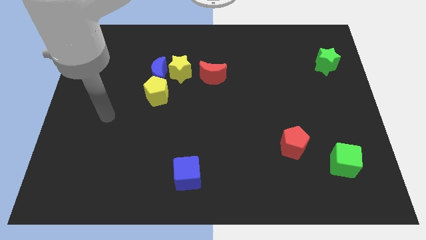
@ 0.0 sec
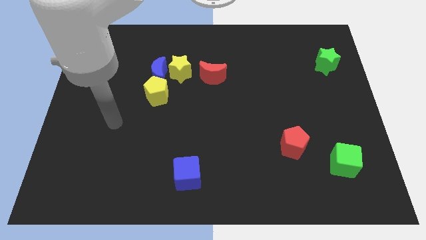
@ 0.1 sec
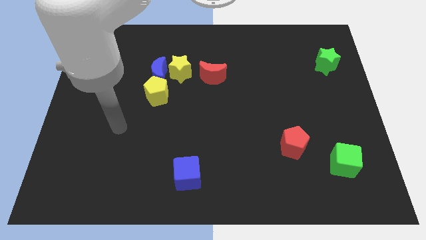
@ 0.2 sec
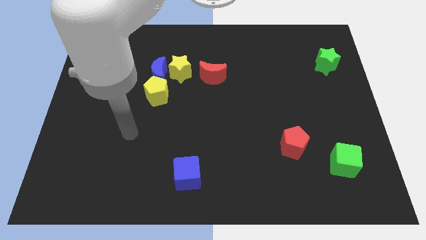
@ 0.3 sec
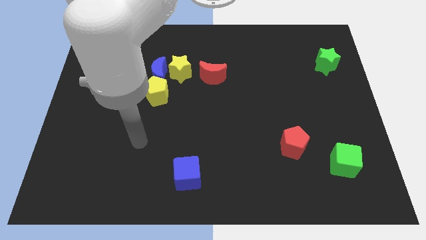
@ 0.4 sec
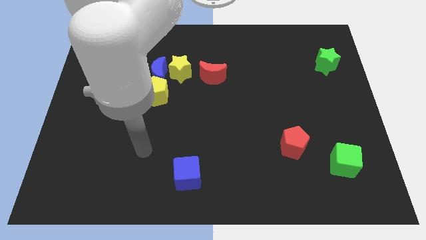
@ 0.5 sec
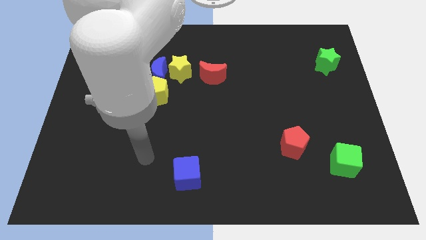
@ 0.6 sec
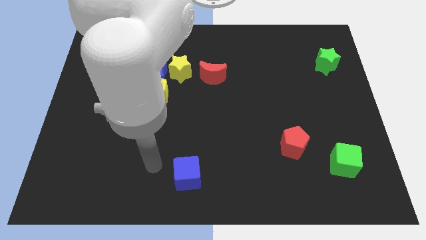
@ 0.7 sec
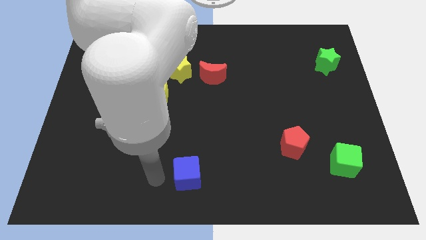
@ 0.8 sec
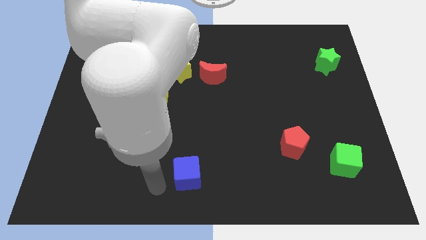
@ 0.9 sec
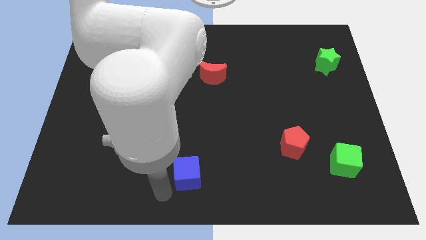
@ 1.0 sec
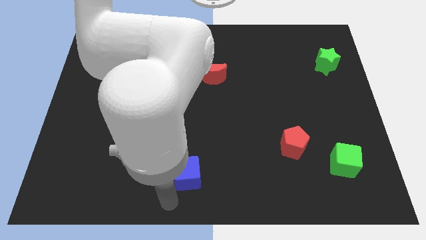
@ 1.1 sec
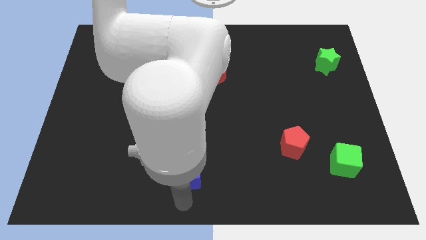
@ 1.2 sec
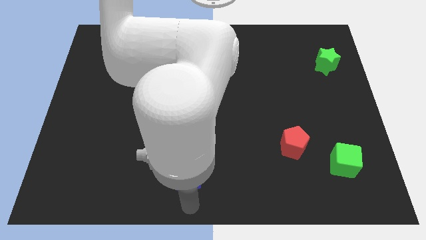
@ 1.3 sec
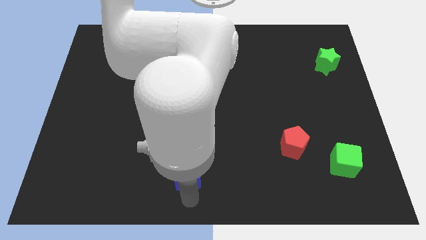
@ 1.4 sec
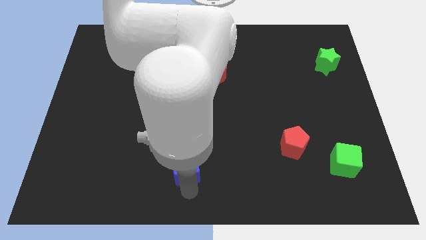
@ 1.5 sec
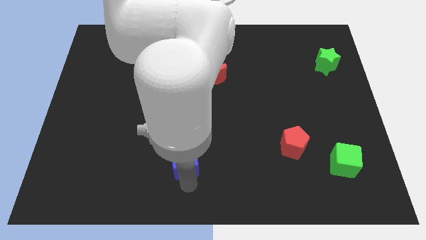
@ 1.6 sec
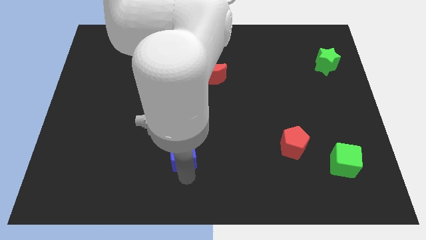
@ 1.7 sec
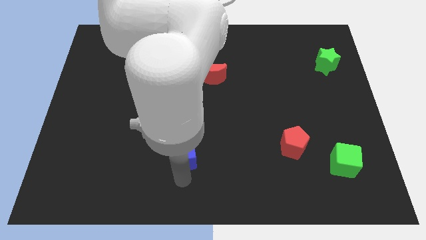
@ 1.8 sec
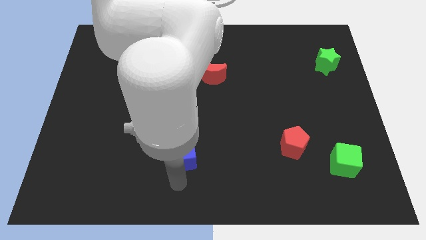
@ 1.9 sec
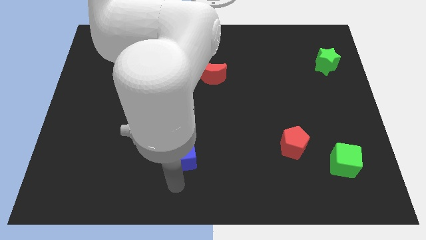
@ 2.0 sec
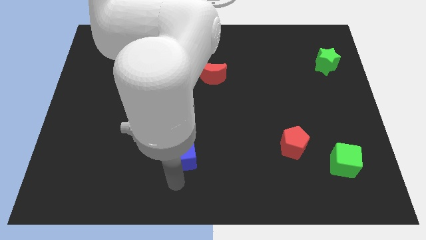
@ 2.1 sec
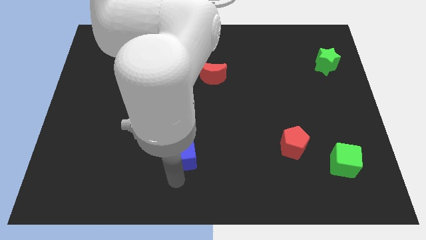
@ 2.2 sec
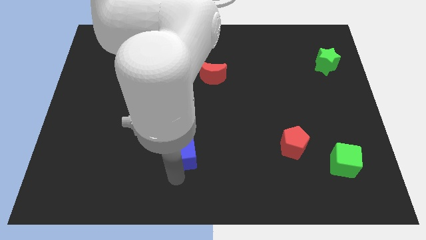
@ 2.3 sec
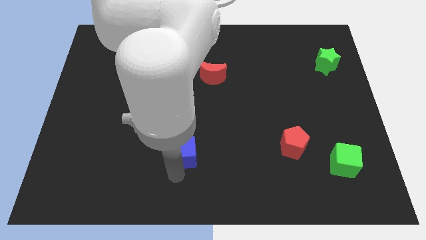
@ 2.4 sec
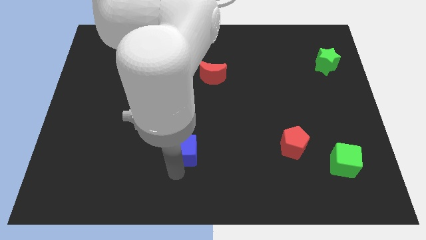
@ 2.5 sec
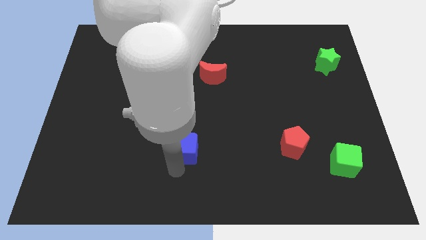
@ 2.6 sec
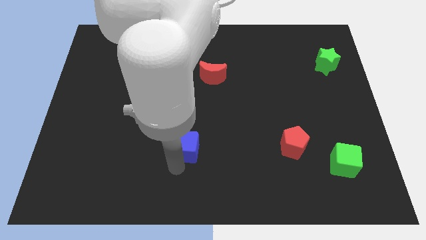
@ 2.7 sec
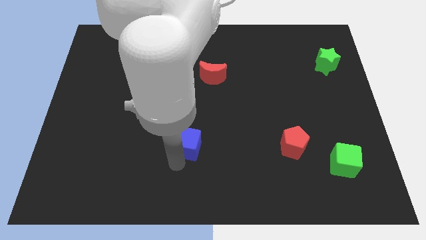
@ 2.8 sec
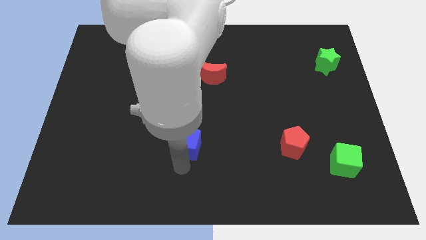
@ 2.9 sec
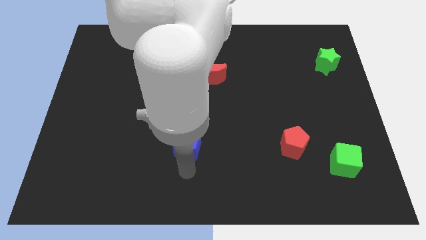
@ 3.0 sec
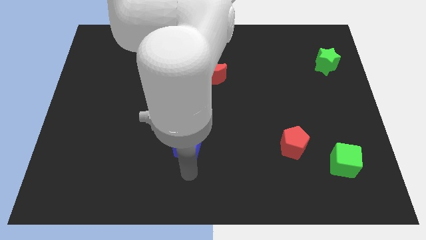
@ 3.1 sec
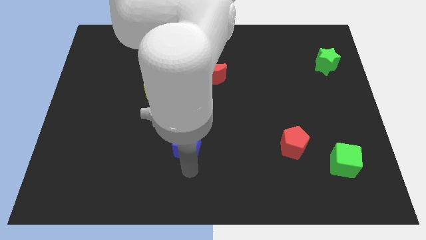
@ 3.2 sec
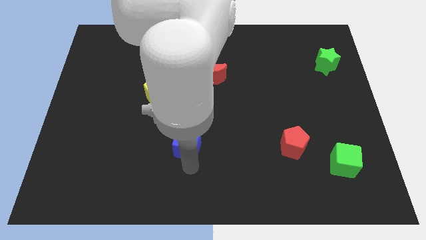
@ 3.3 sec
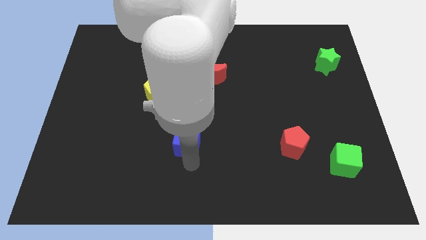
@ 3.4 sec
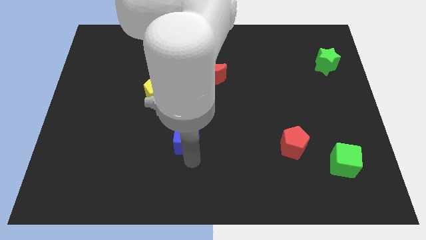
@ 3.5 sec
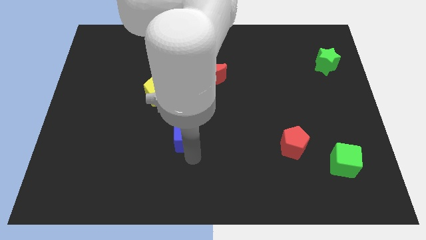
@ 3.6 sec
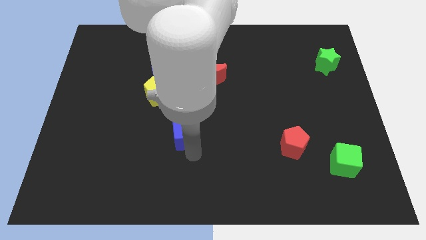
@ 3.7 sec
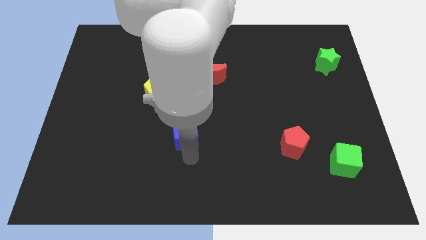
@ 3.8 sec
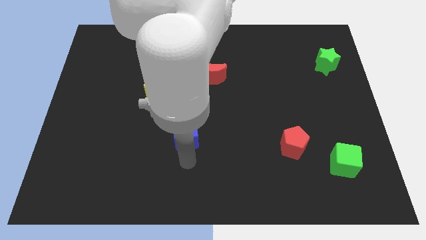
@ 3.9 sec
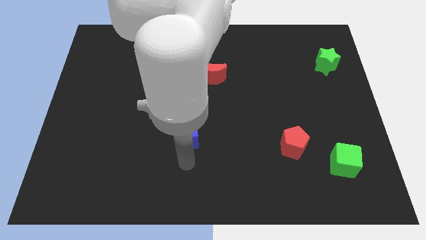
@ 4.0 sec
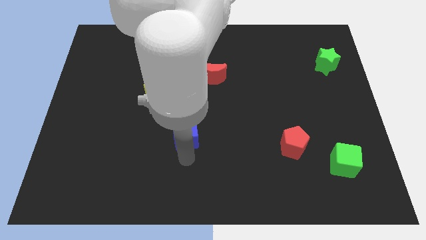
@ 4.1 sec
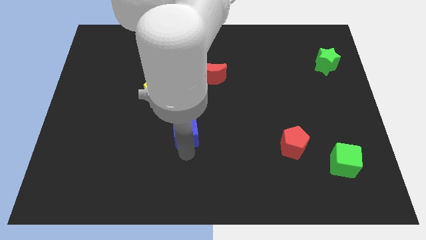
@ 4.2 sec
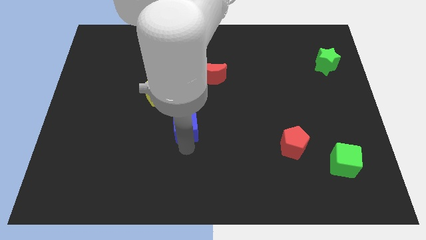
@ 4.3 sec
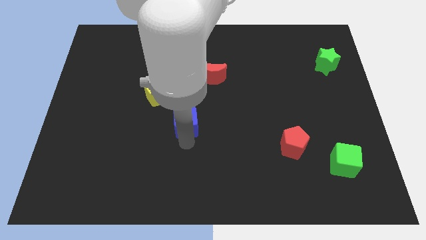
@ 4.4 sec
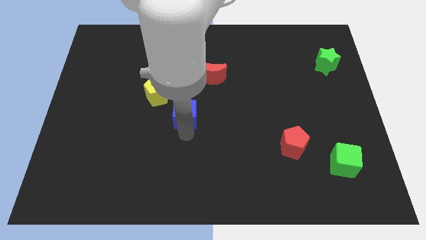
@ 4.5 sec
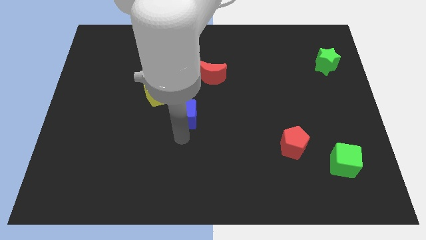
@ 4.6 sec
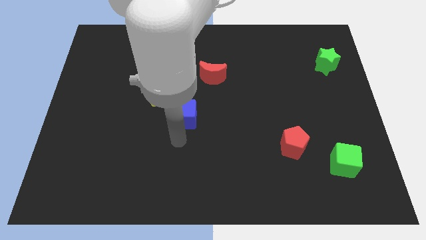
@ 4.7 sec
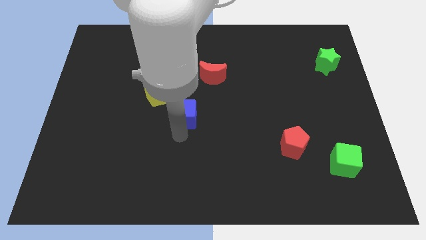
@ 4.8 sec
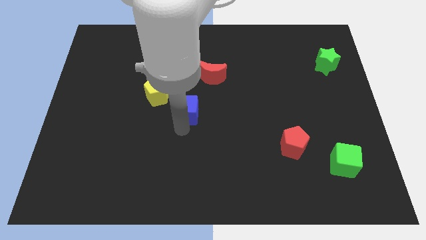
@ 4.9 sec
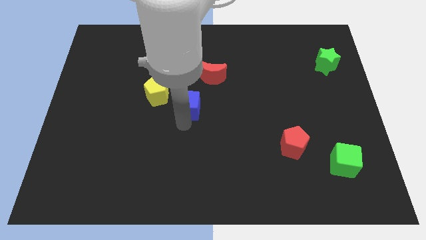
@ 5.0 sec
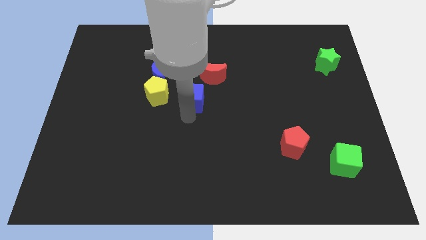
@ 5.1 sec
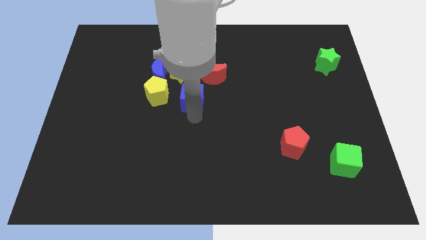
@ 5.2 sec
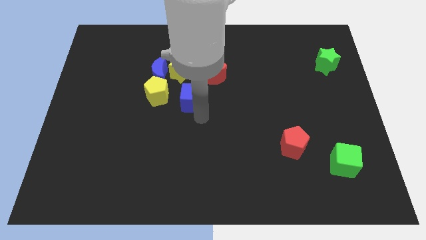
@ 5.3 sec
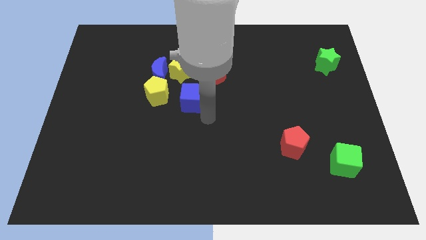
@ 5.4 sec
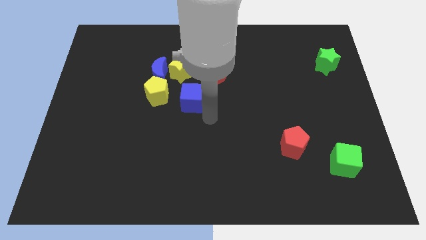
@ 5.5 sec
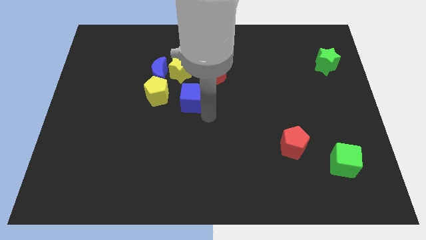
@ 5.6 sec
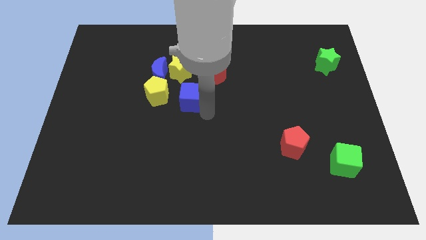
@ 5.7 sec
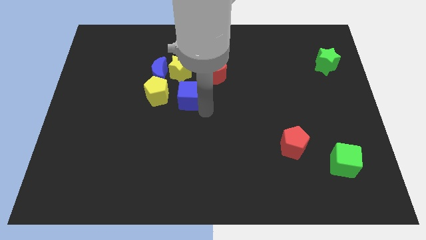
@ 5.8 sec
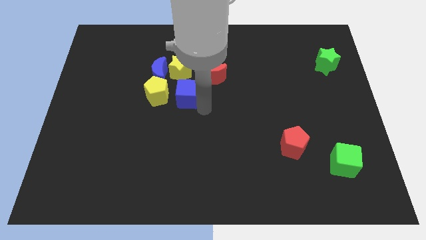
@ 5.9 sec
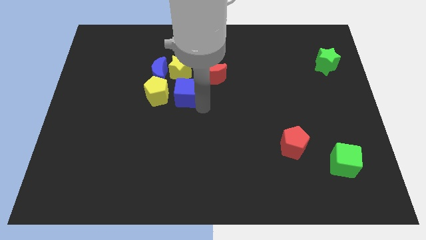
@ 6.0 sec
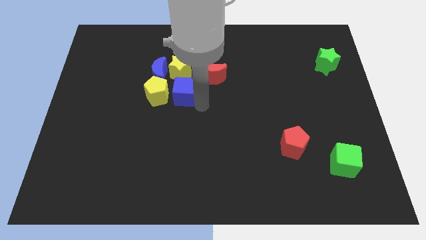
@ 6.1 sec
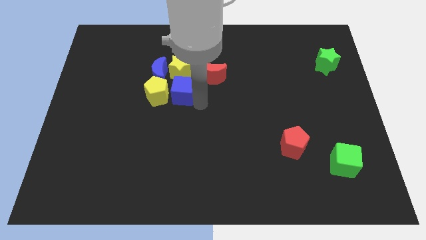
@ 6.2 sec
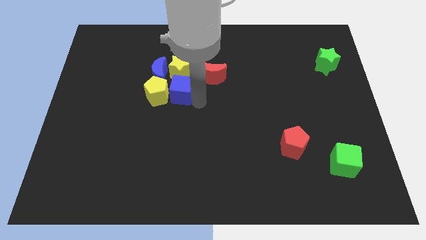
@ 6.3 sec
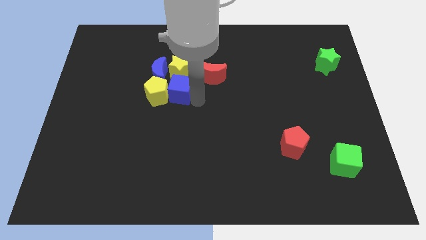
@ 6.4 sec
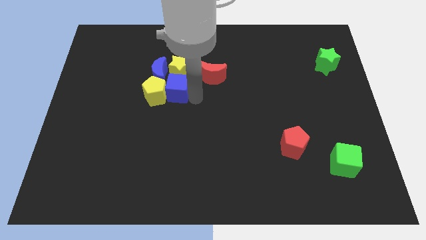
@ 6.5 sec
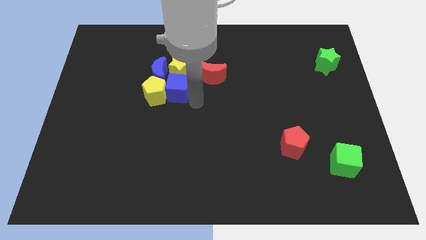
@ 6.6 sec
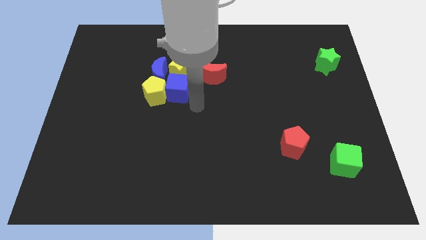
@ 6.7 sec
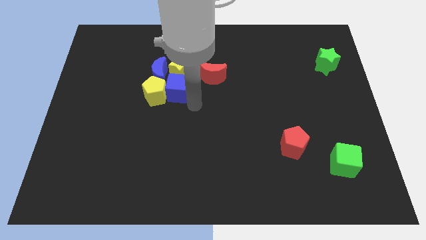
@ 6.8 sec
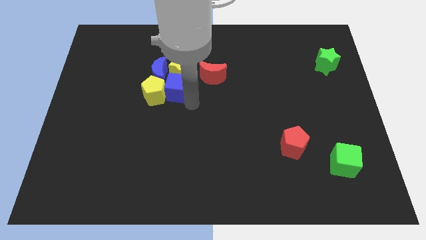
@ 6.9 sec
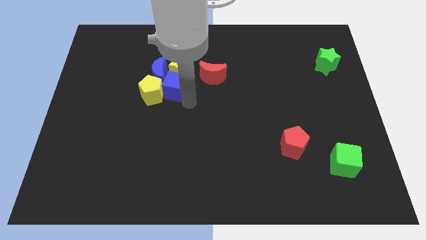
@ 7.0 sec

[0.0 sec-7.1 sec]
push the blue cube towards the blue moon
